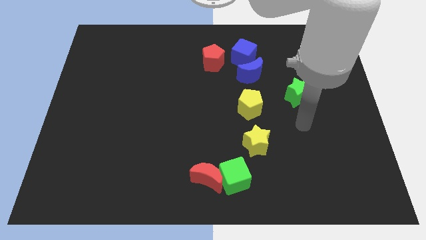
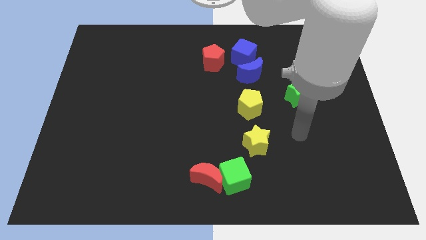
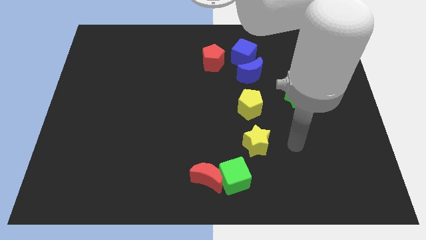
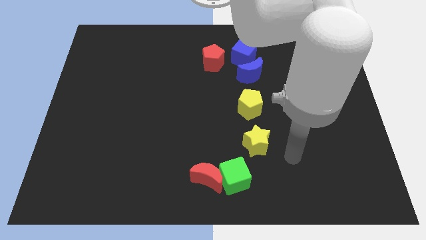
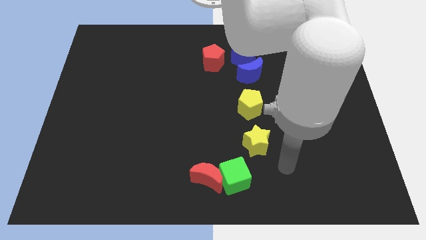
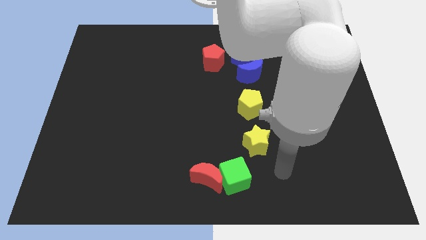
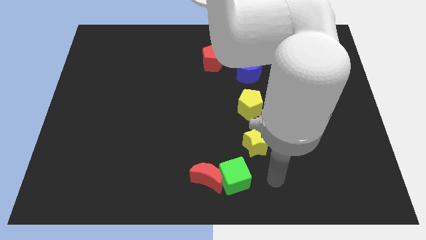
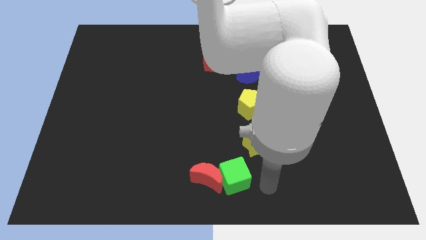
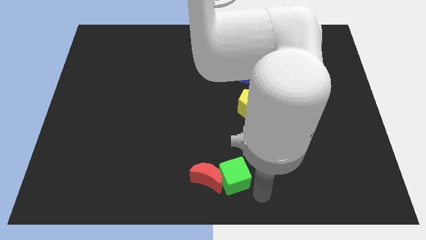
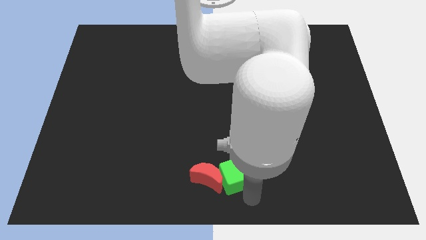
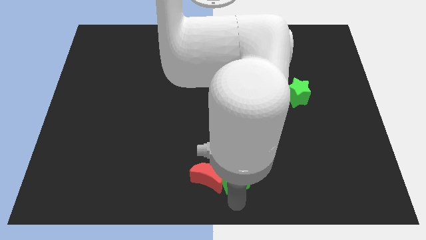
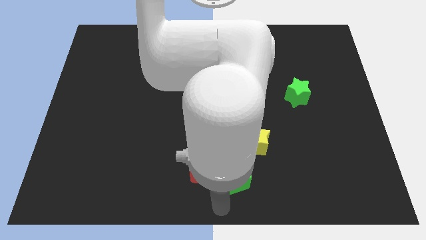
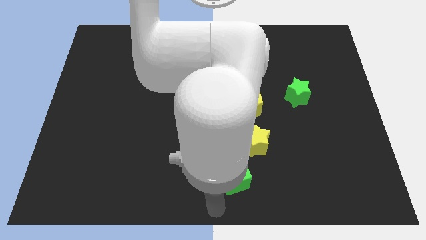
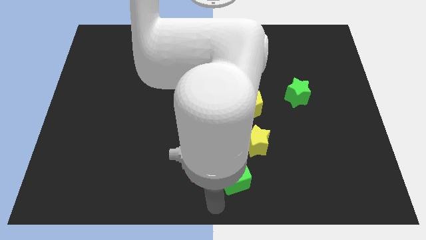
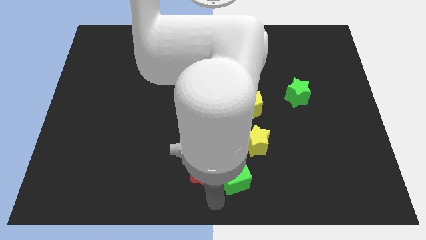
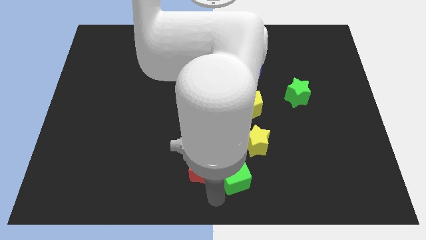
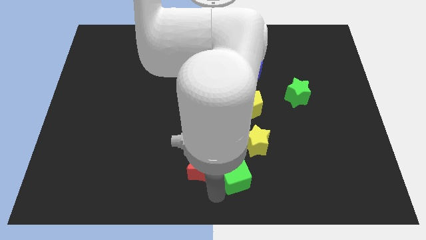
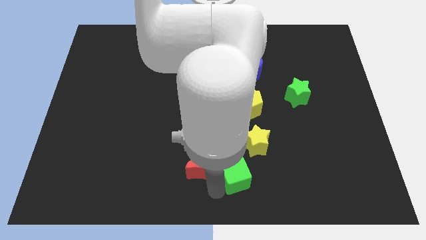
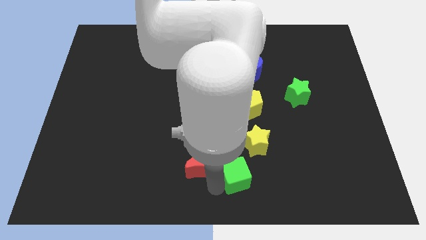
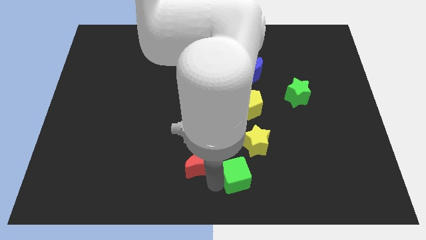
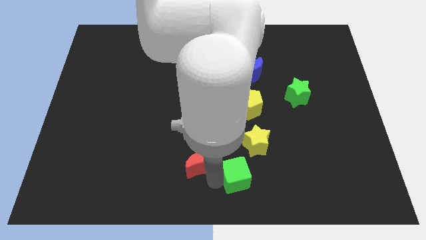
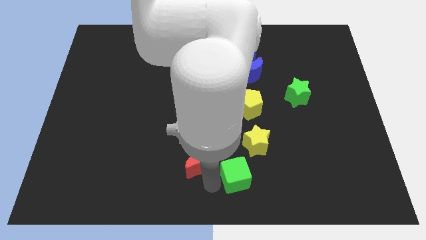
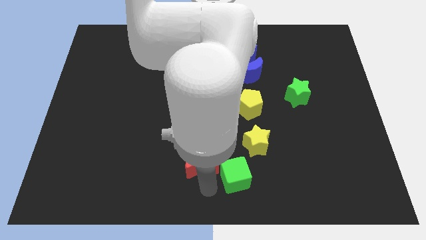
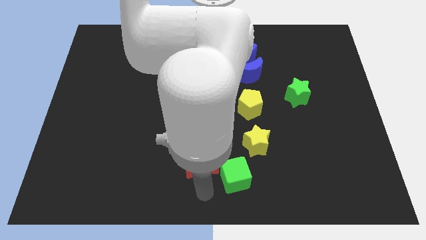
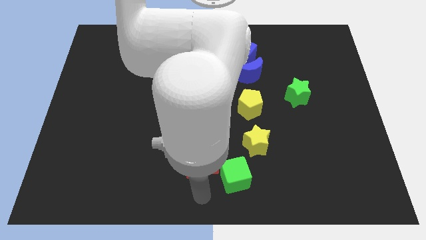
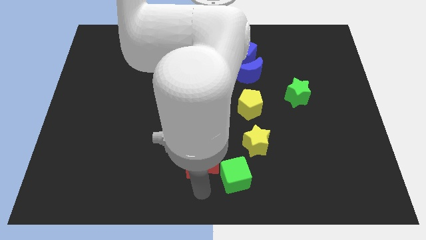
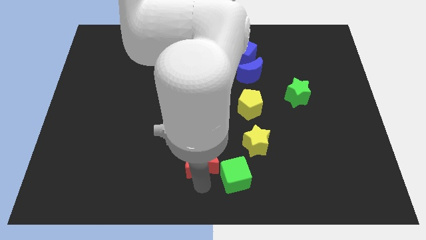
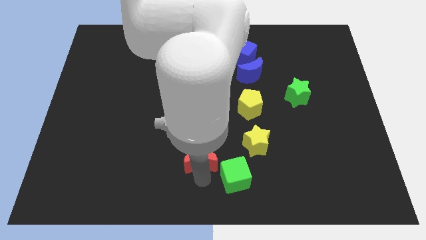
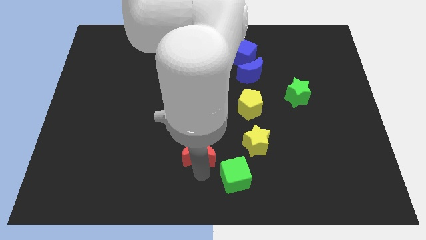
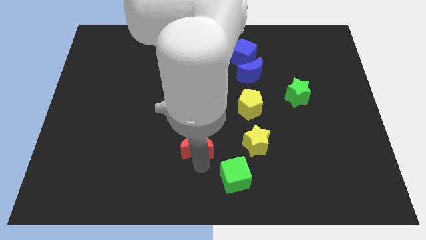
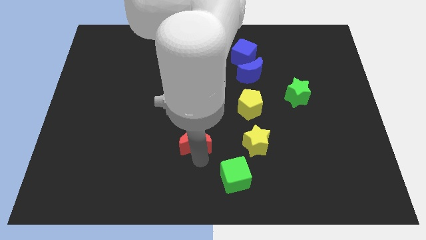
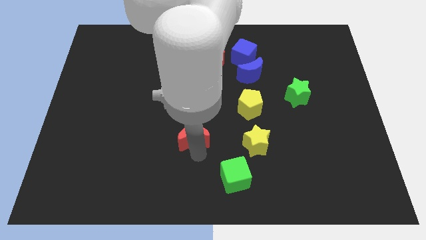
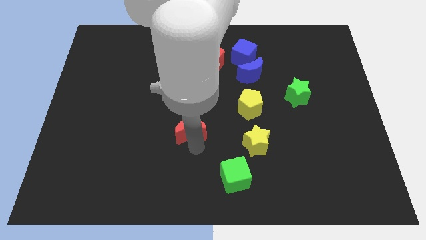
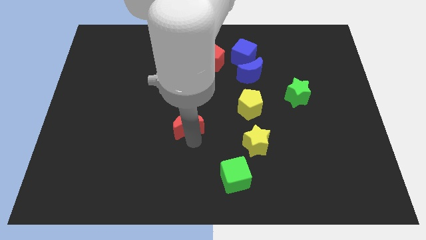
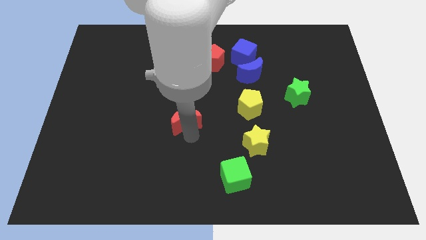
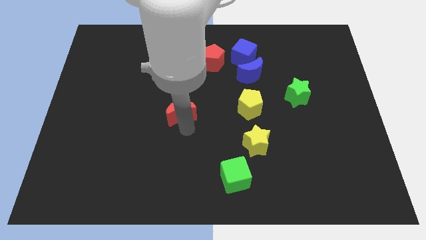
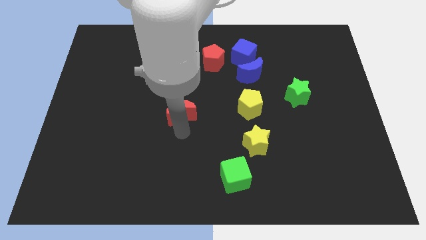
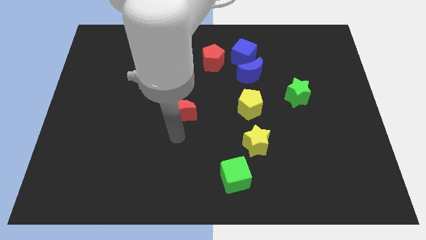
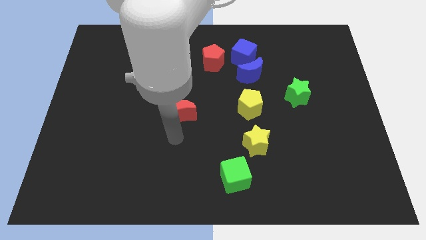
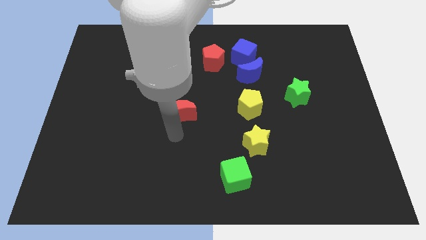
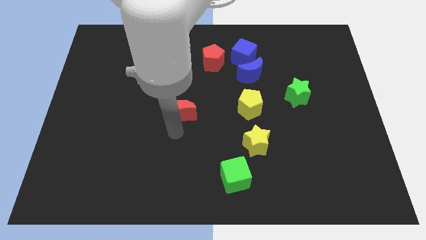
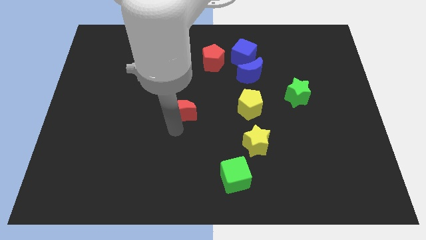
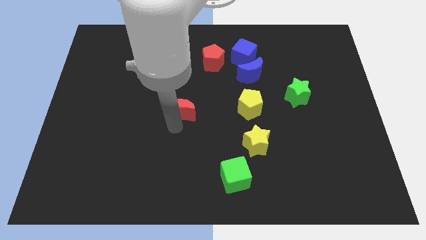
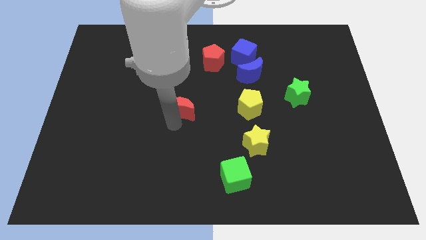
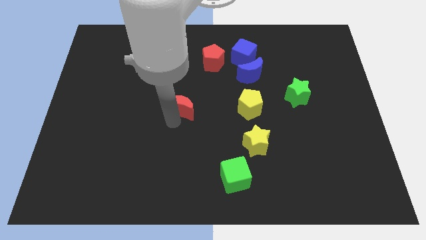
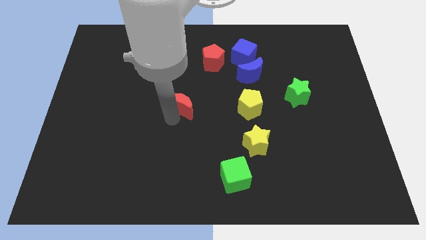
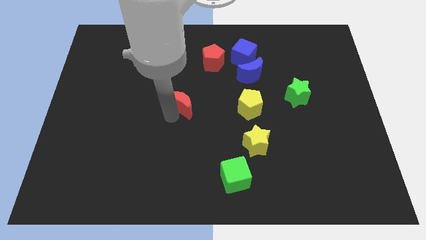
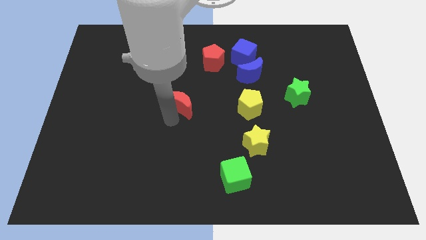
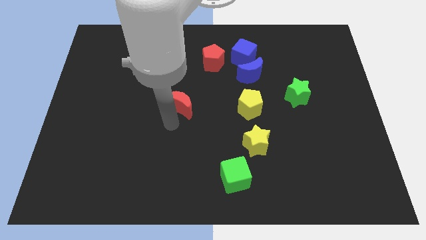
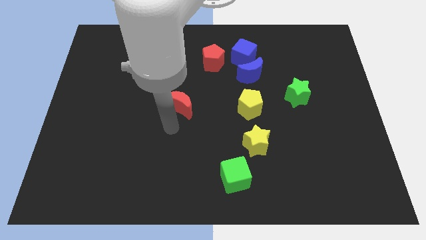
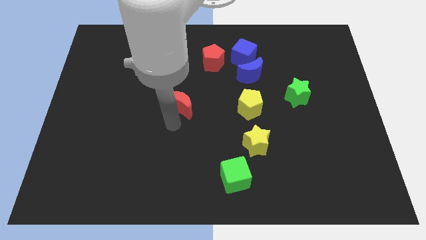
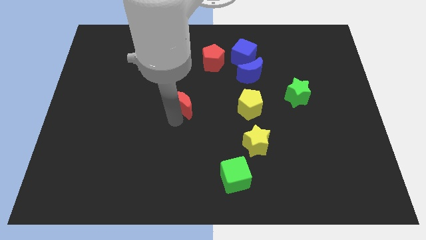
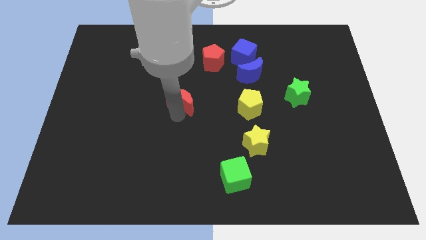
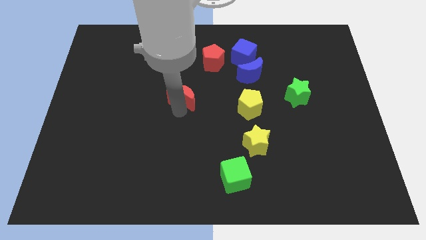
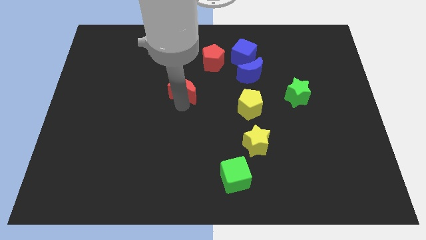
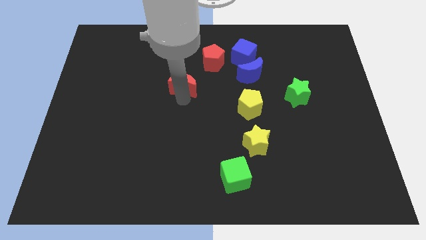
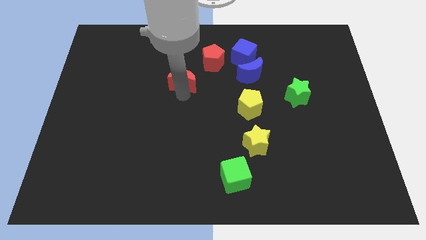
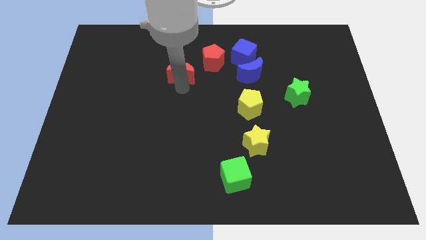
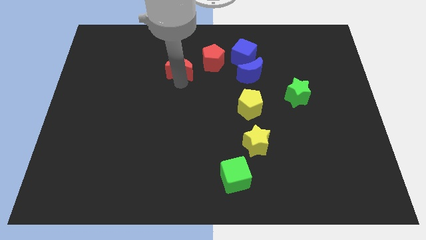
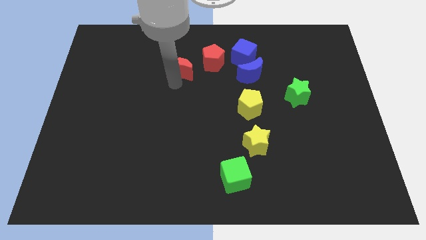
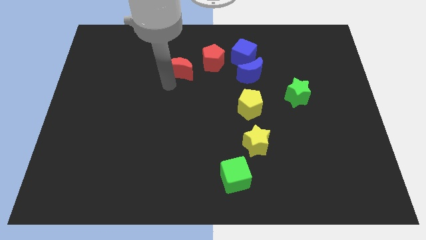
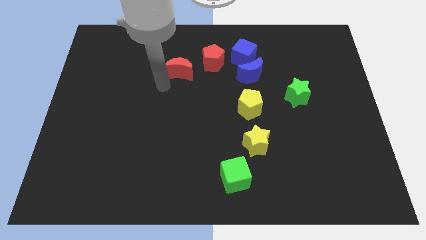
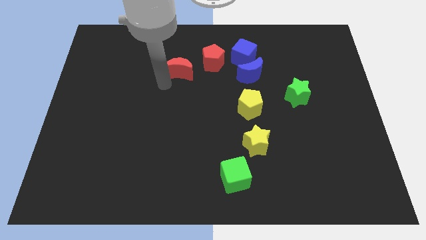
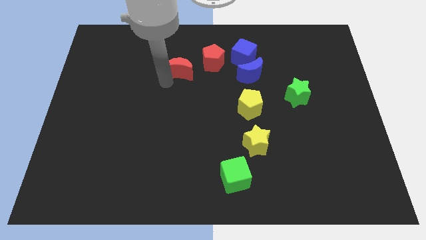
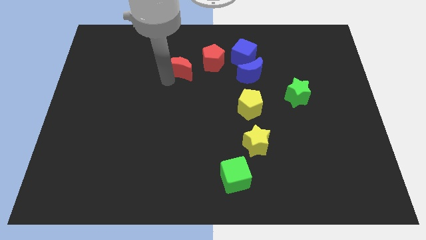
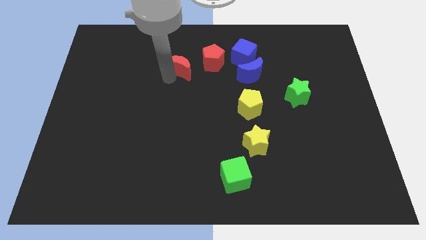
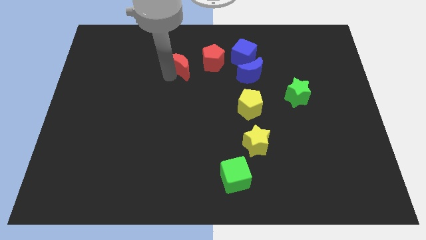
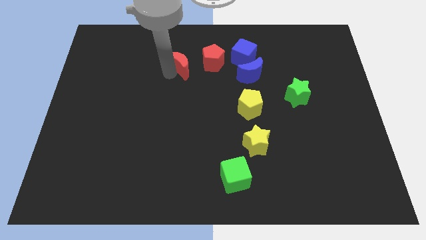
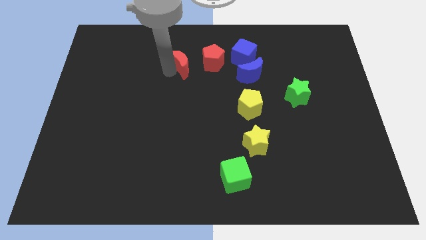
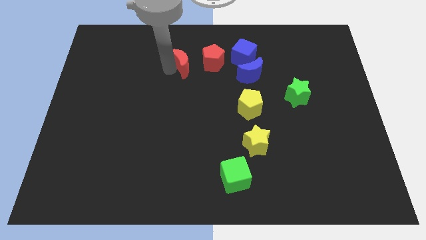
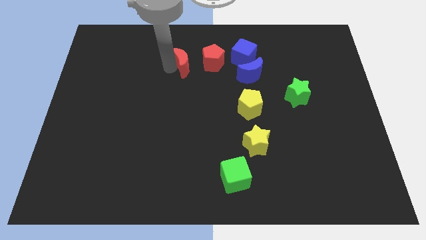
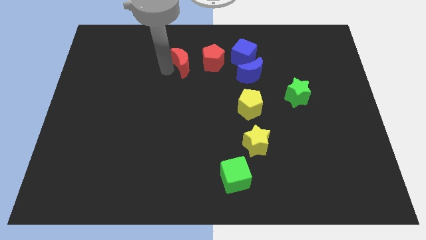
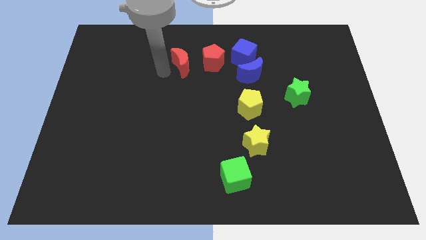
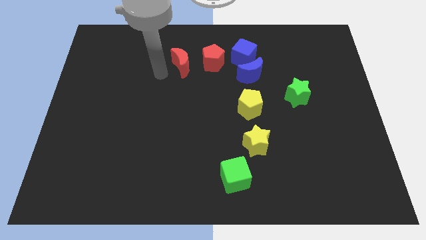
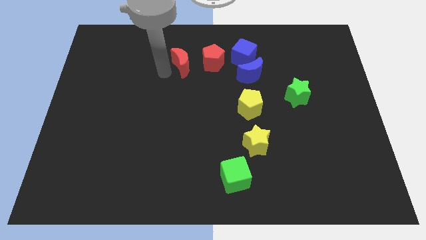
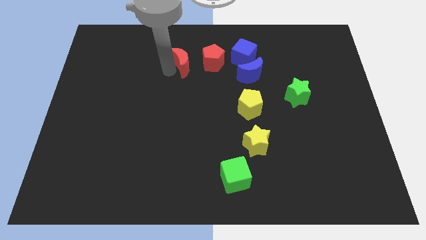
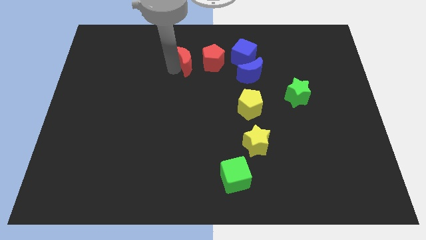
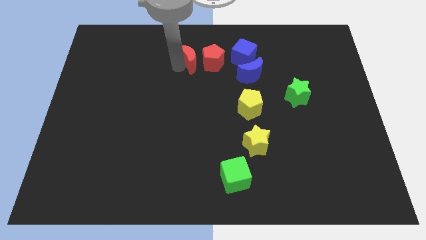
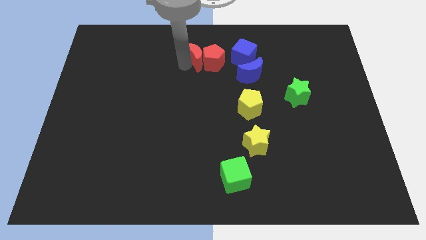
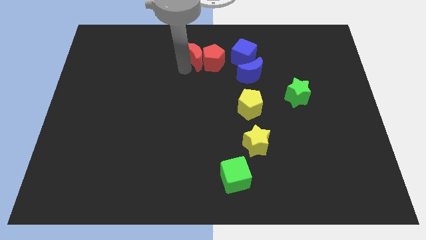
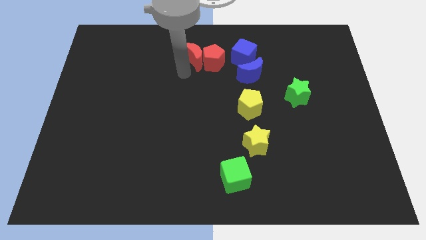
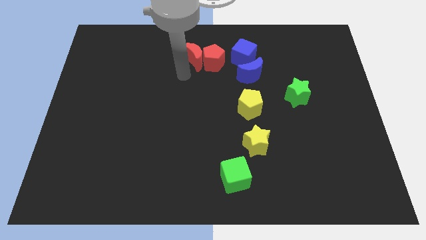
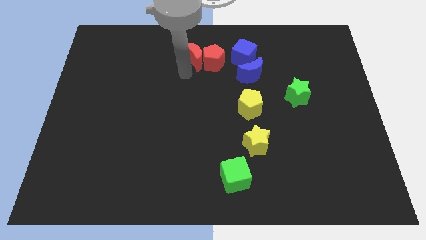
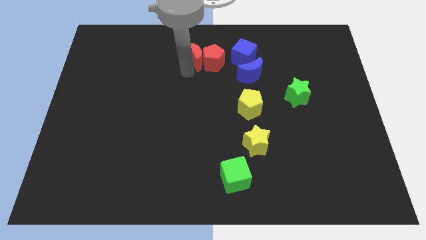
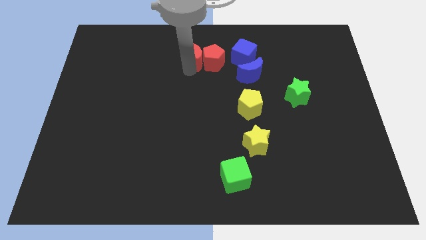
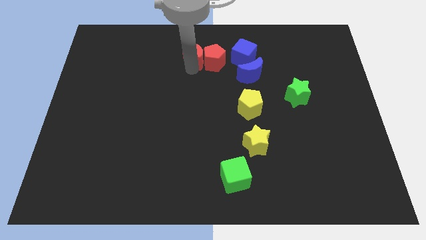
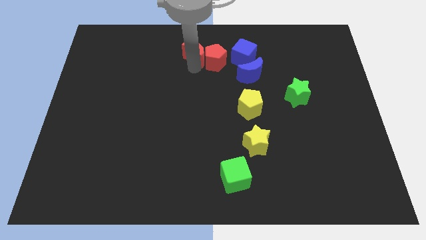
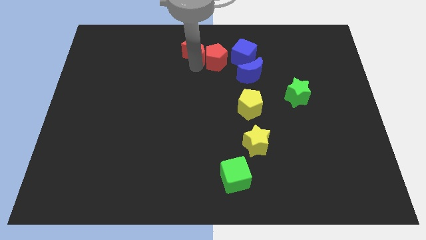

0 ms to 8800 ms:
put the red moon to the top side
